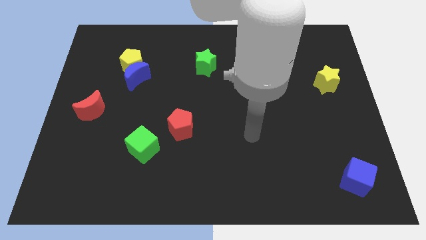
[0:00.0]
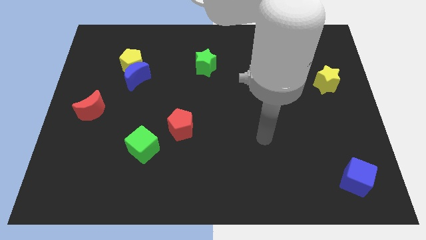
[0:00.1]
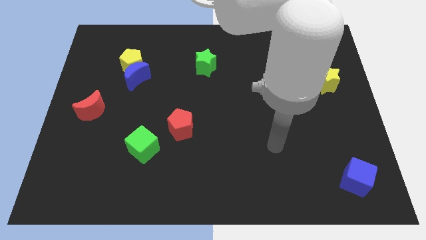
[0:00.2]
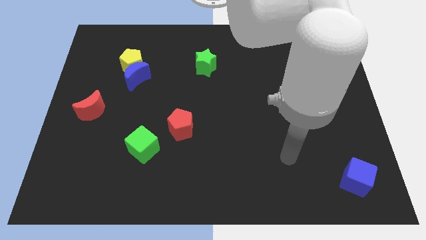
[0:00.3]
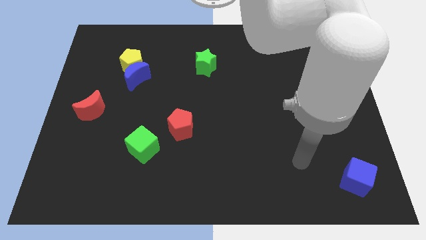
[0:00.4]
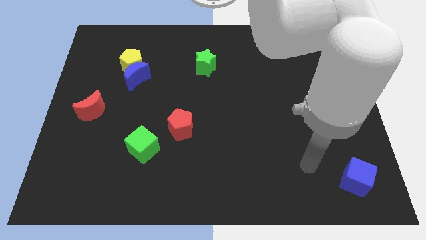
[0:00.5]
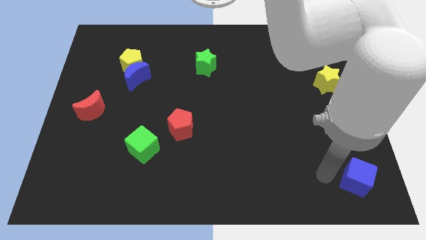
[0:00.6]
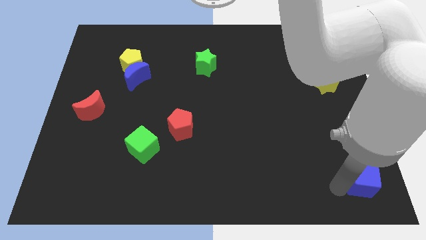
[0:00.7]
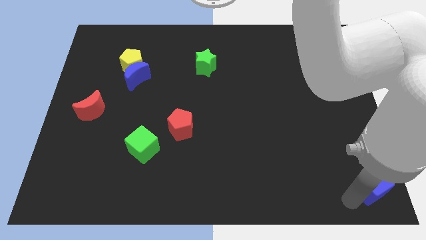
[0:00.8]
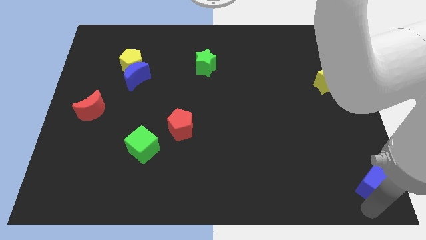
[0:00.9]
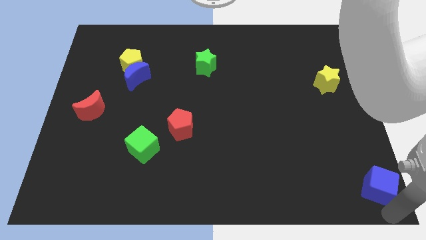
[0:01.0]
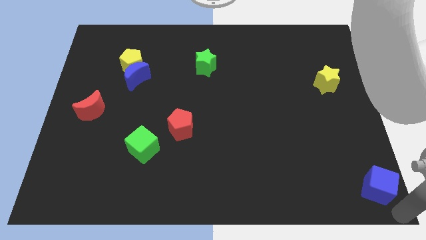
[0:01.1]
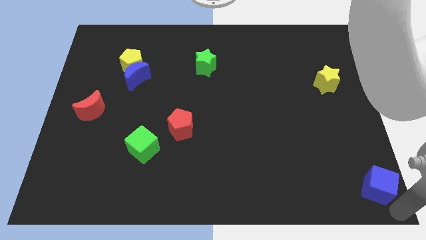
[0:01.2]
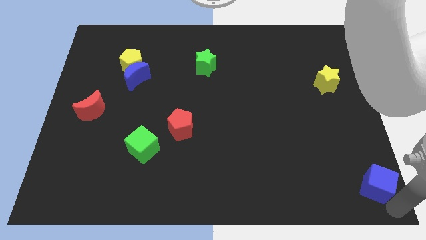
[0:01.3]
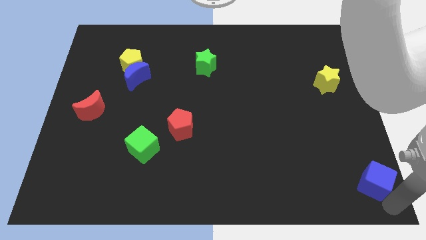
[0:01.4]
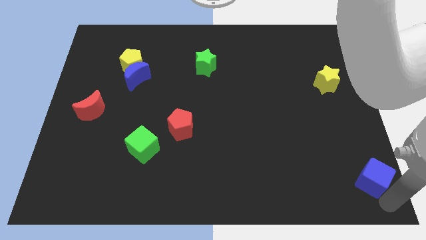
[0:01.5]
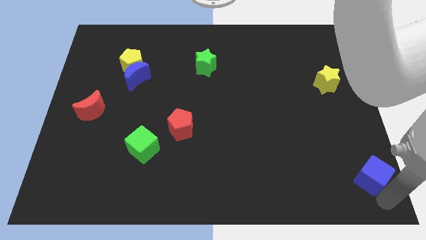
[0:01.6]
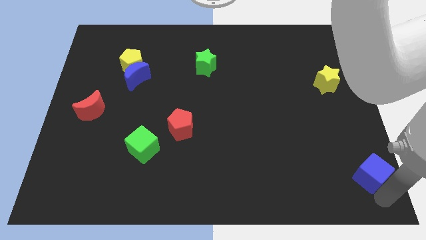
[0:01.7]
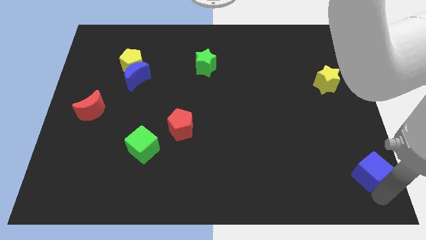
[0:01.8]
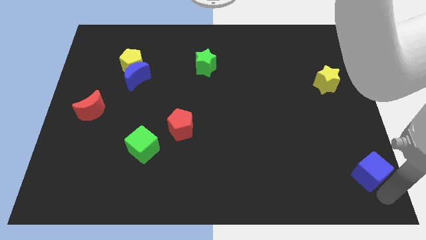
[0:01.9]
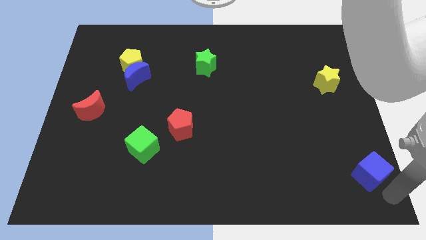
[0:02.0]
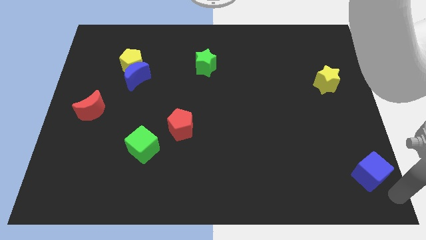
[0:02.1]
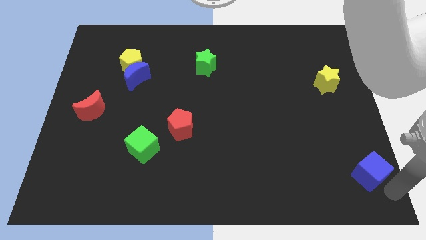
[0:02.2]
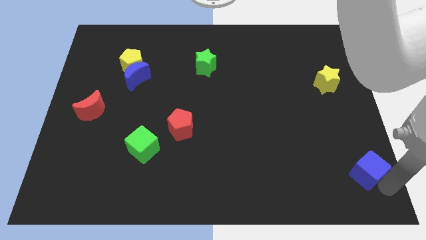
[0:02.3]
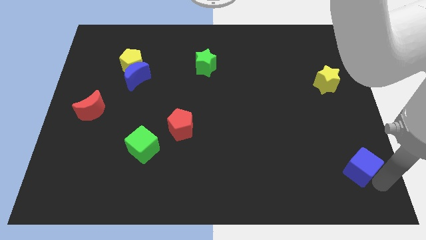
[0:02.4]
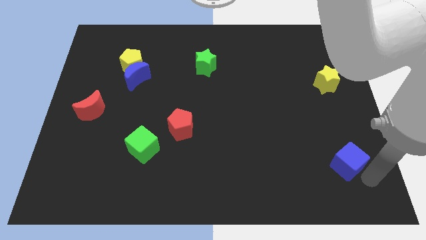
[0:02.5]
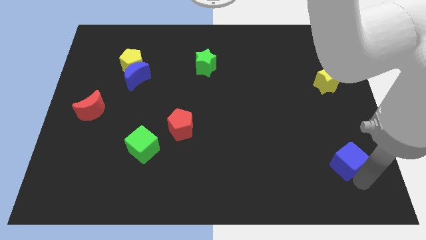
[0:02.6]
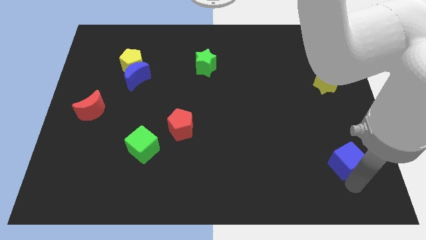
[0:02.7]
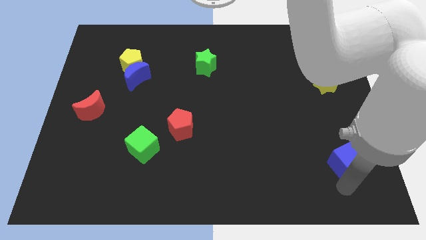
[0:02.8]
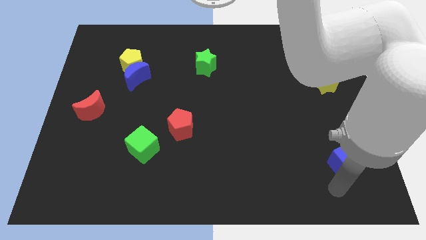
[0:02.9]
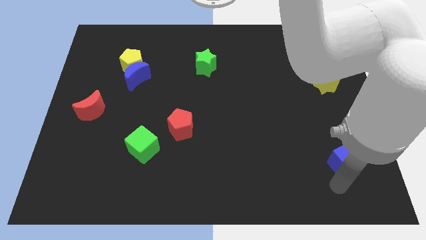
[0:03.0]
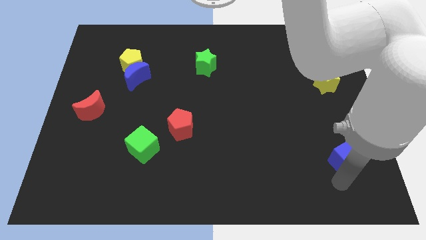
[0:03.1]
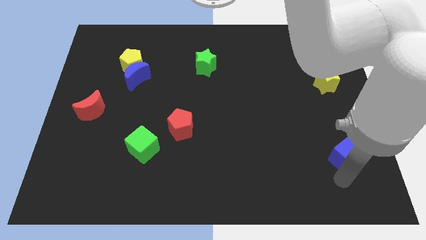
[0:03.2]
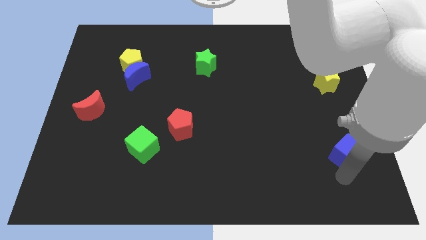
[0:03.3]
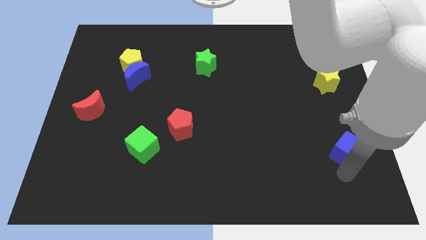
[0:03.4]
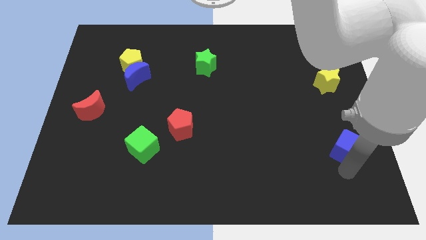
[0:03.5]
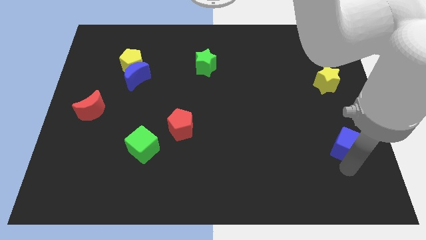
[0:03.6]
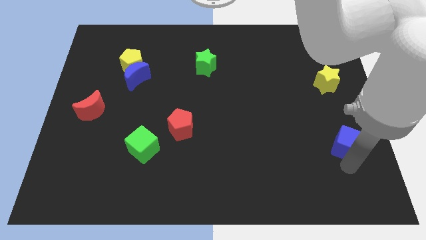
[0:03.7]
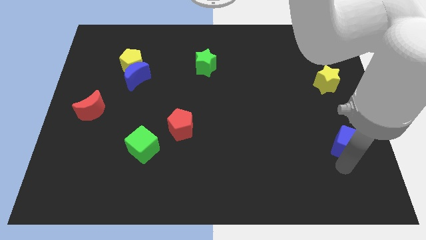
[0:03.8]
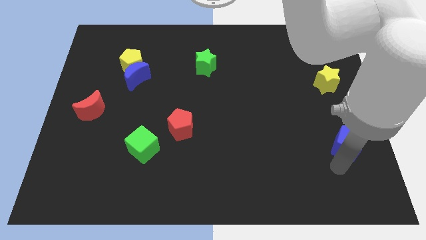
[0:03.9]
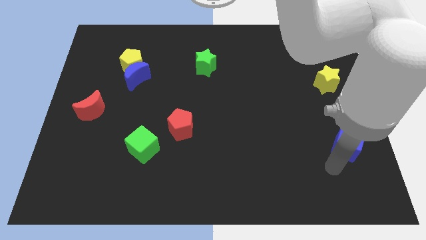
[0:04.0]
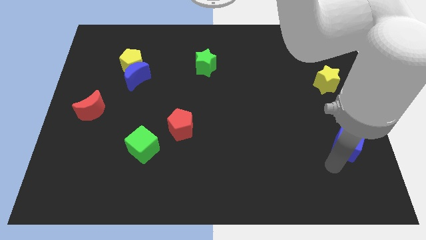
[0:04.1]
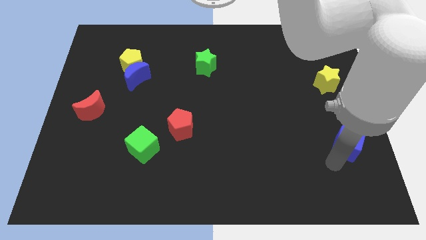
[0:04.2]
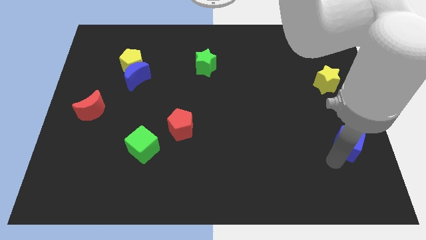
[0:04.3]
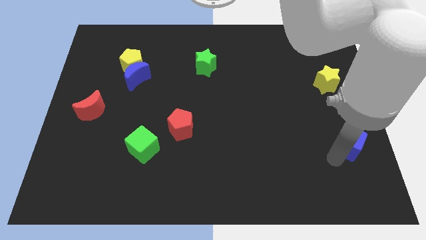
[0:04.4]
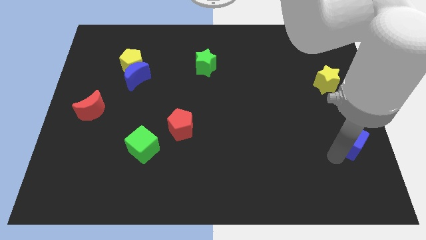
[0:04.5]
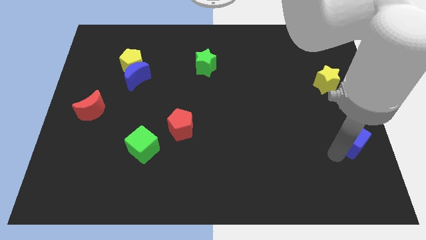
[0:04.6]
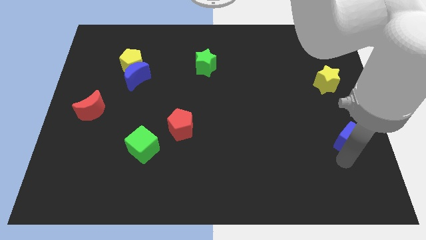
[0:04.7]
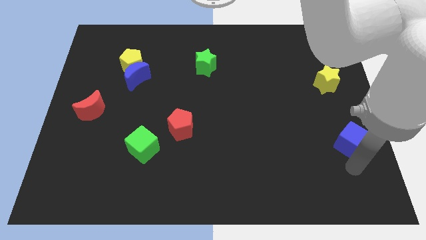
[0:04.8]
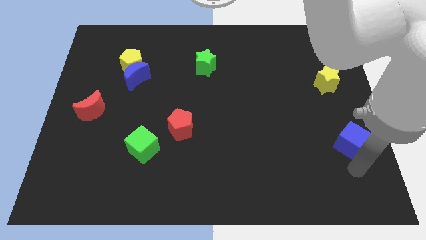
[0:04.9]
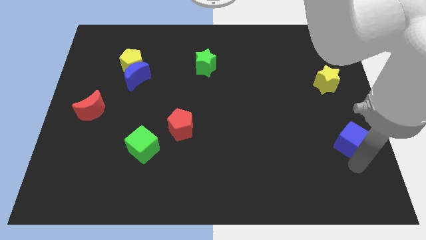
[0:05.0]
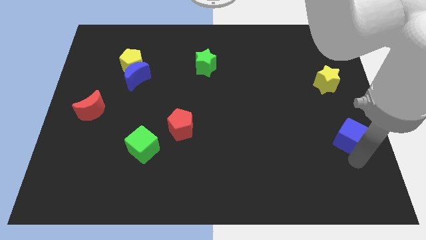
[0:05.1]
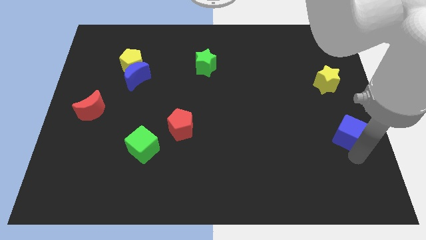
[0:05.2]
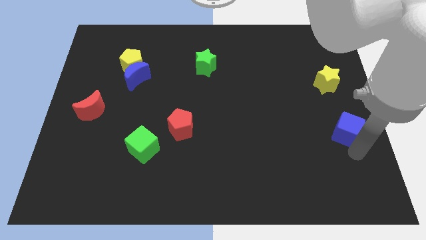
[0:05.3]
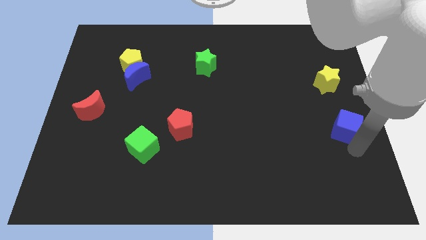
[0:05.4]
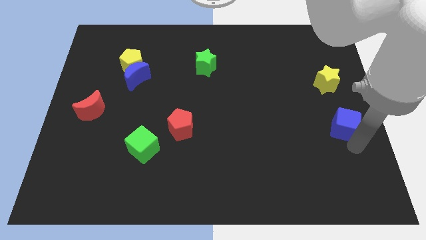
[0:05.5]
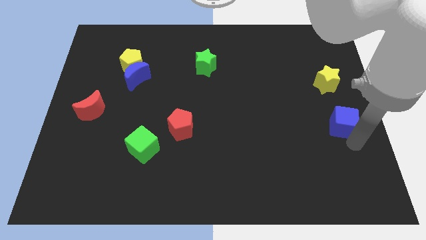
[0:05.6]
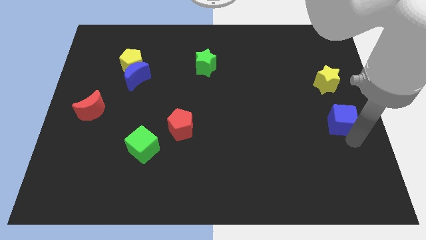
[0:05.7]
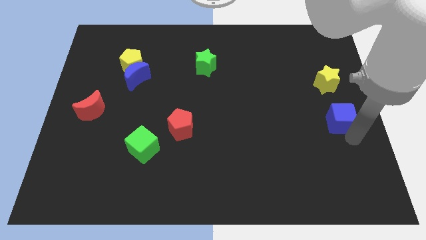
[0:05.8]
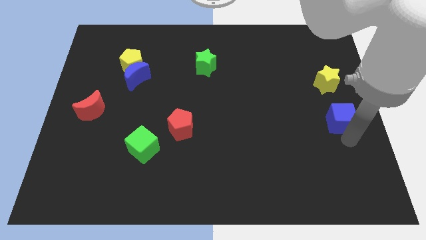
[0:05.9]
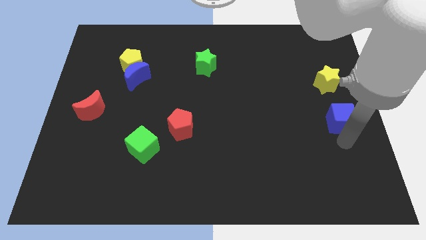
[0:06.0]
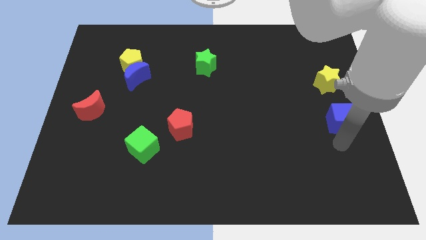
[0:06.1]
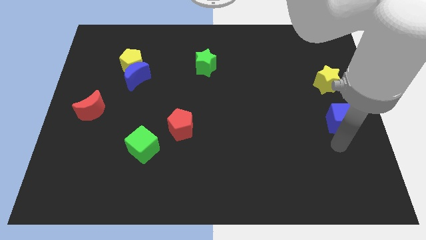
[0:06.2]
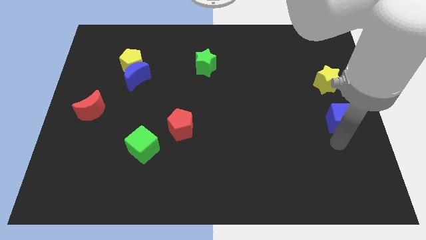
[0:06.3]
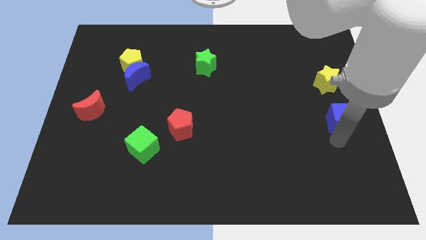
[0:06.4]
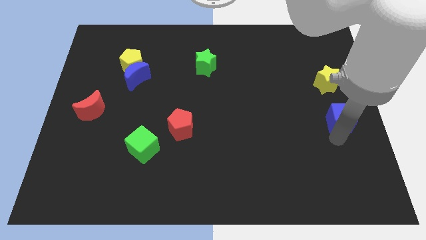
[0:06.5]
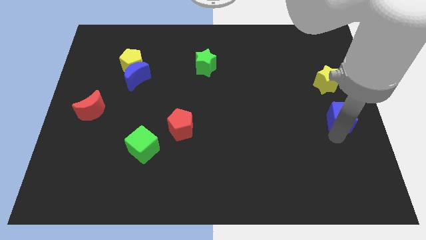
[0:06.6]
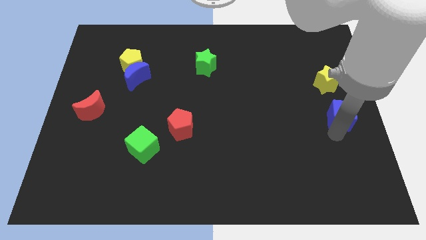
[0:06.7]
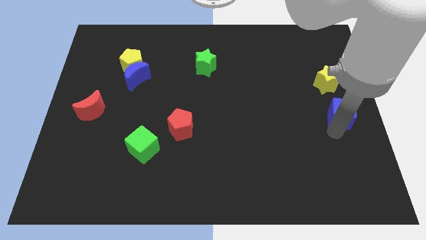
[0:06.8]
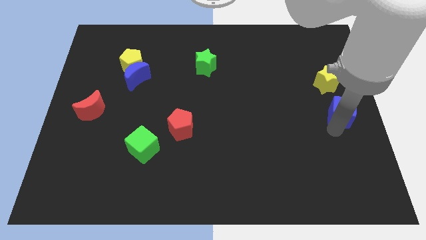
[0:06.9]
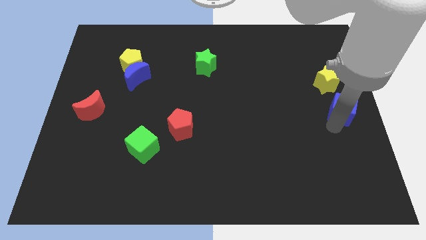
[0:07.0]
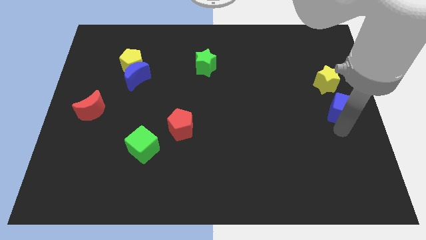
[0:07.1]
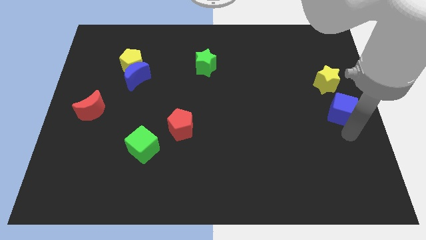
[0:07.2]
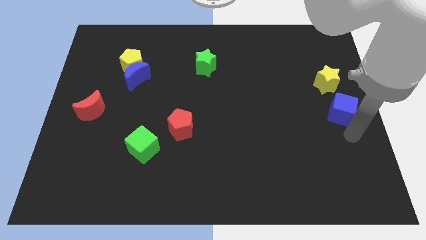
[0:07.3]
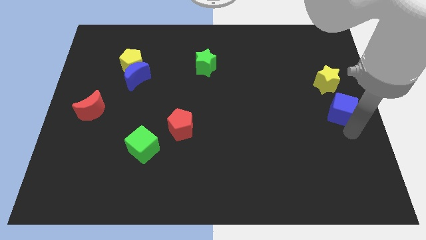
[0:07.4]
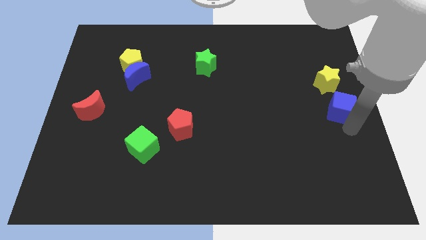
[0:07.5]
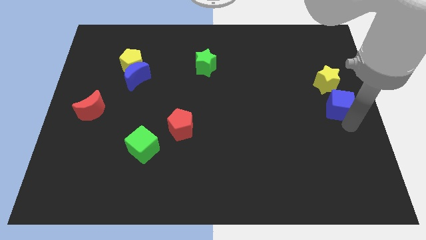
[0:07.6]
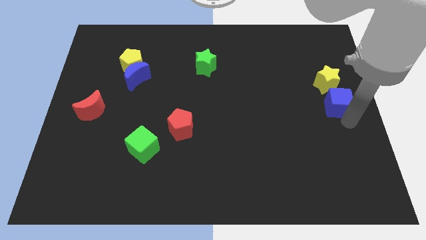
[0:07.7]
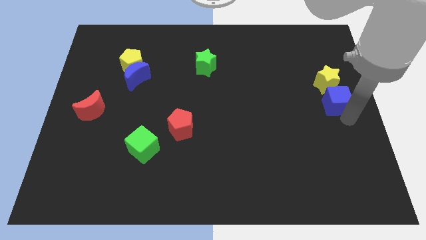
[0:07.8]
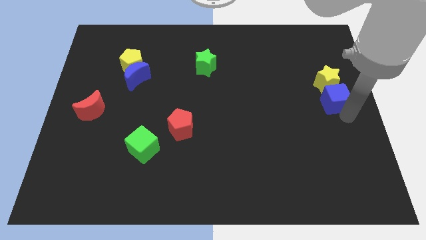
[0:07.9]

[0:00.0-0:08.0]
put the blue cube close to the yellow star
